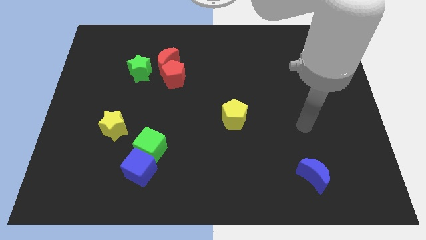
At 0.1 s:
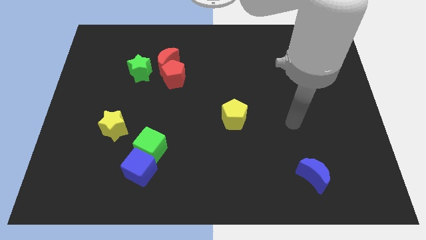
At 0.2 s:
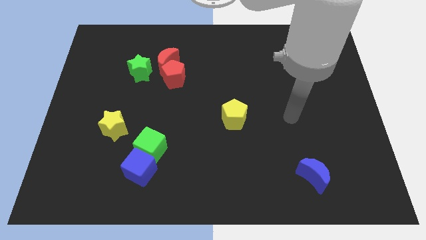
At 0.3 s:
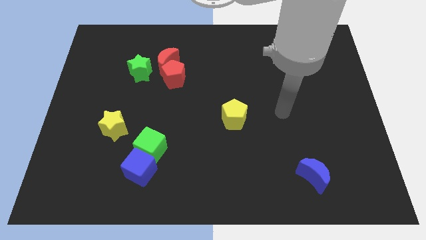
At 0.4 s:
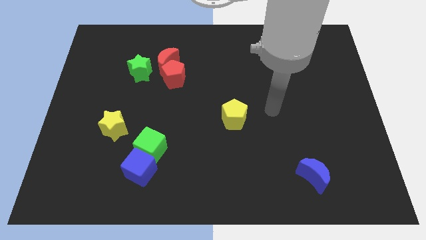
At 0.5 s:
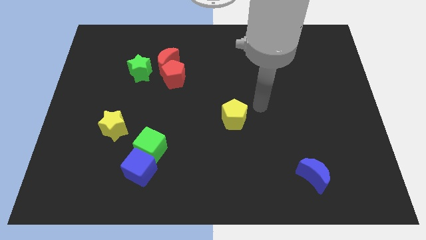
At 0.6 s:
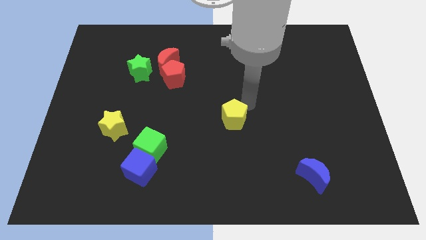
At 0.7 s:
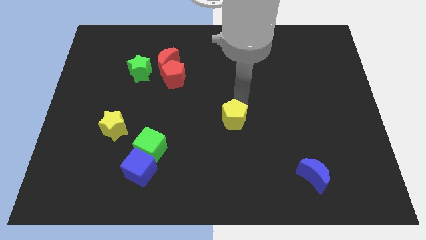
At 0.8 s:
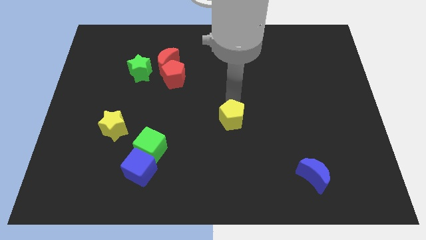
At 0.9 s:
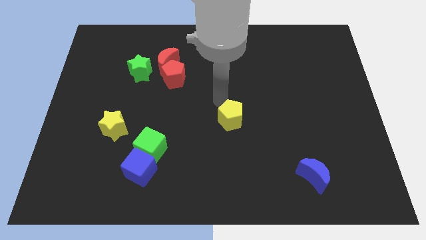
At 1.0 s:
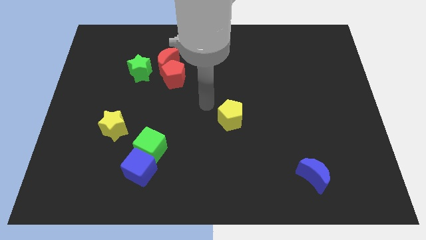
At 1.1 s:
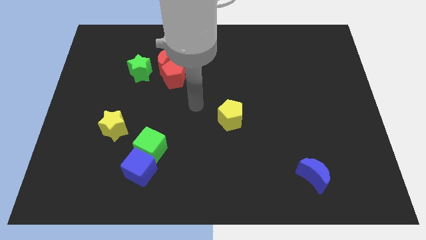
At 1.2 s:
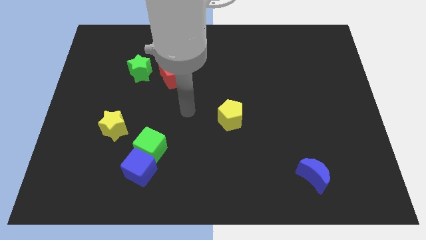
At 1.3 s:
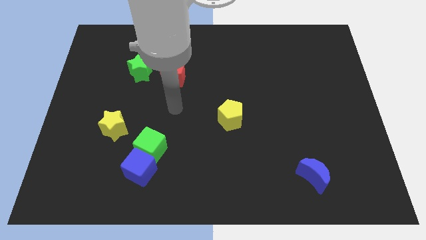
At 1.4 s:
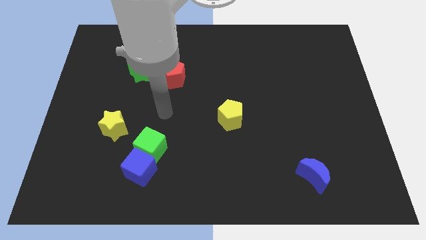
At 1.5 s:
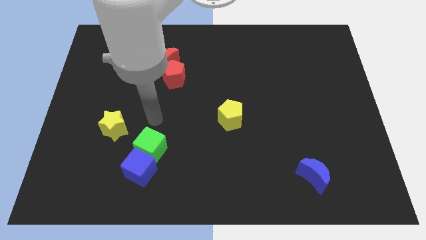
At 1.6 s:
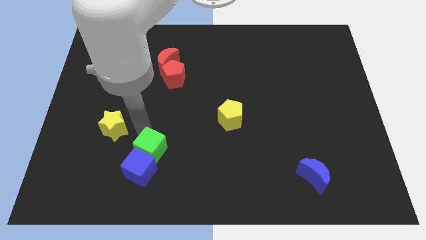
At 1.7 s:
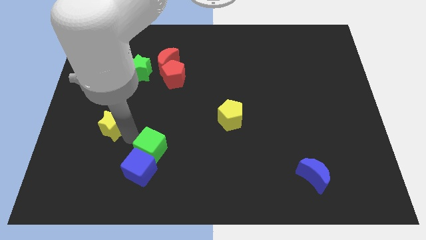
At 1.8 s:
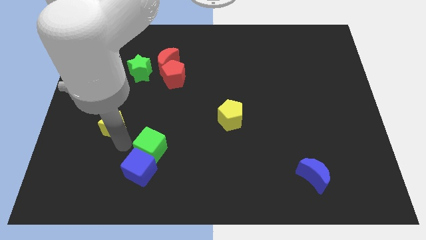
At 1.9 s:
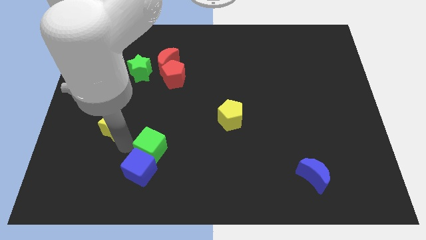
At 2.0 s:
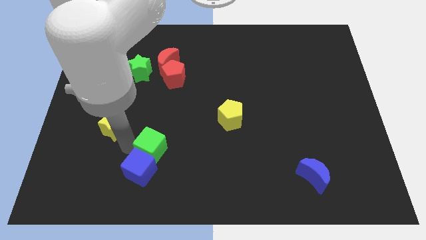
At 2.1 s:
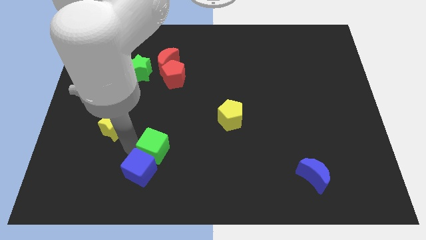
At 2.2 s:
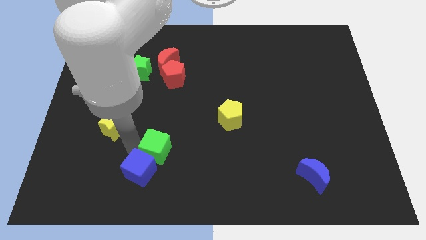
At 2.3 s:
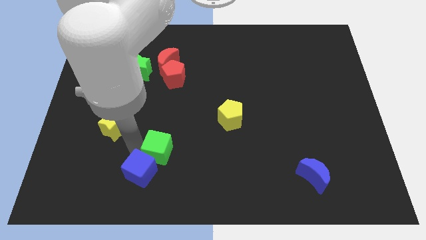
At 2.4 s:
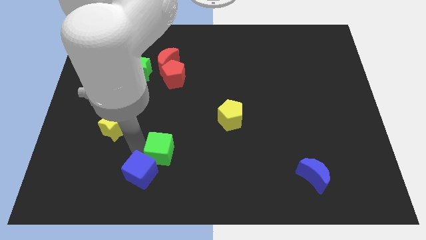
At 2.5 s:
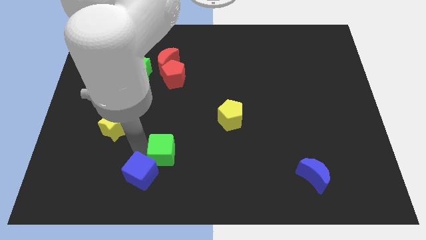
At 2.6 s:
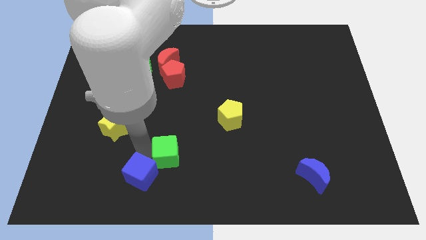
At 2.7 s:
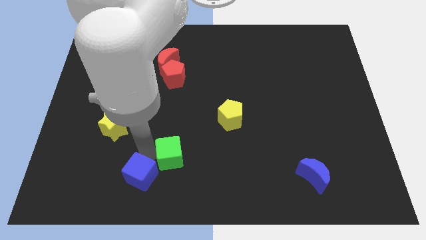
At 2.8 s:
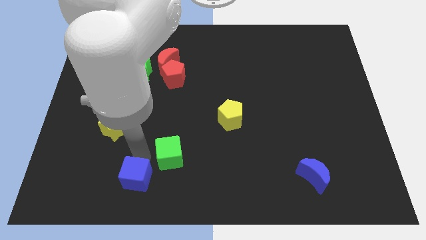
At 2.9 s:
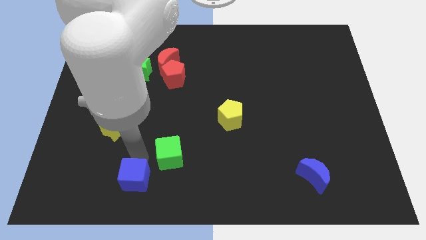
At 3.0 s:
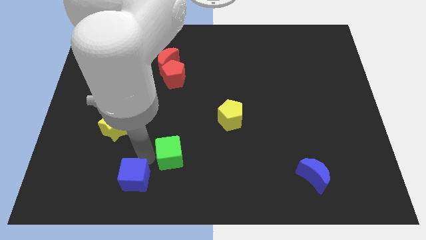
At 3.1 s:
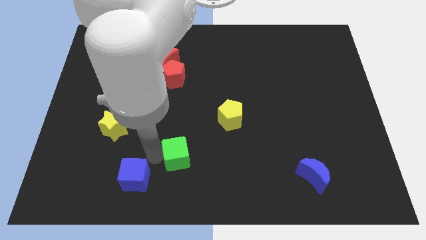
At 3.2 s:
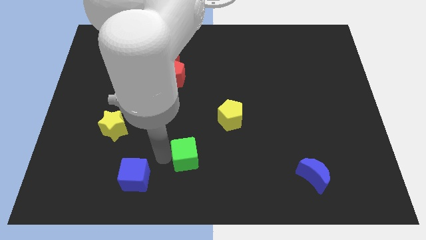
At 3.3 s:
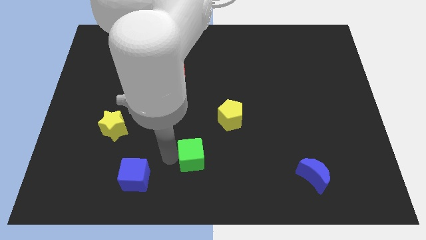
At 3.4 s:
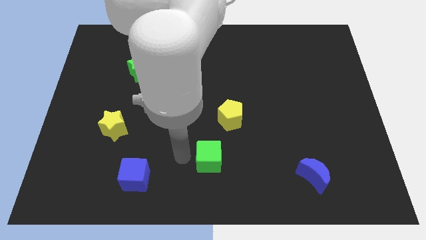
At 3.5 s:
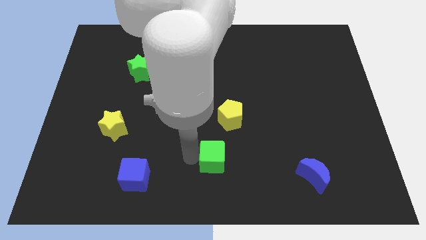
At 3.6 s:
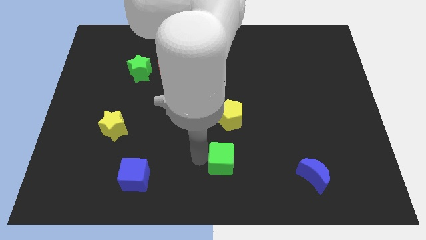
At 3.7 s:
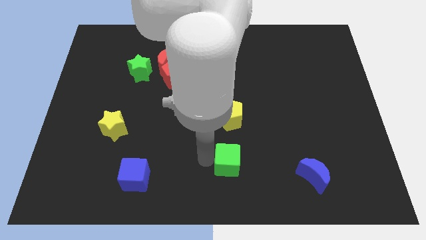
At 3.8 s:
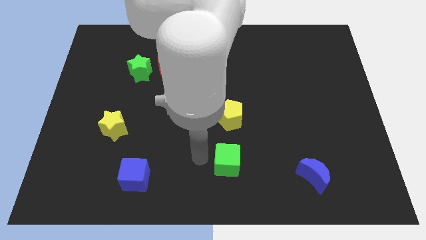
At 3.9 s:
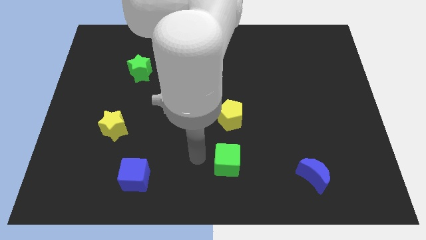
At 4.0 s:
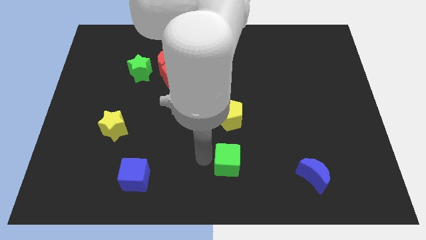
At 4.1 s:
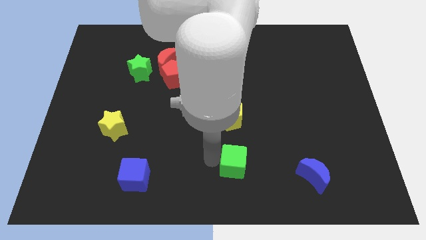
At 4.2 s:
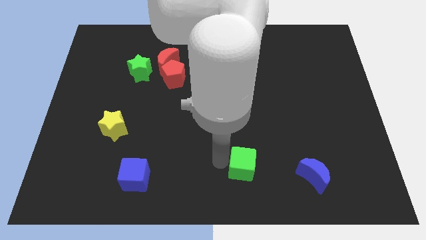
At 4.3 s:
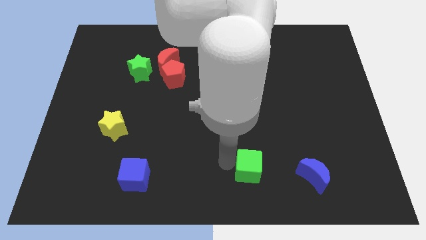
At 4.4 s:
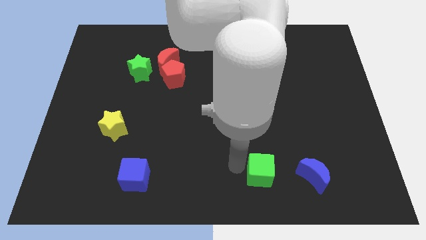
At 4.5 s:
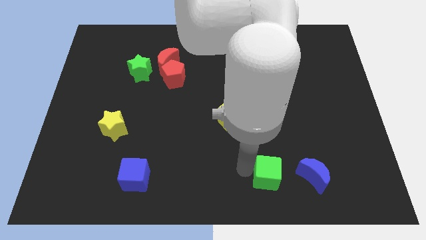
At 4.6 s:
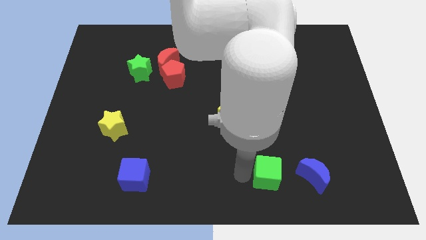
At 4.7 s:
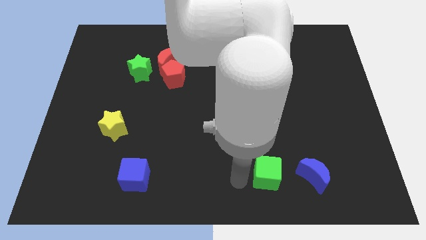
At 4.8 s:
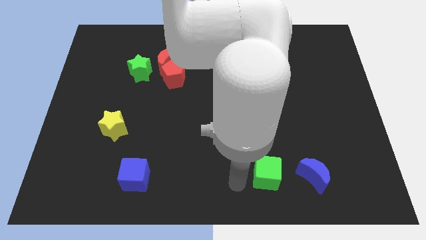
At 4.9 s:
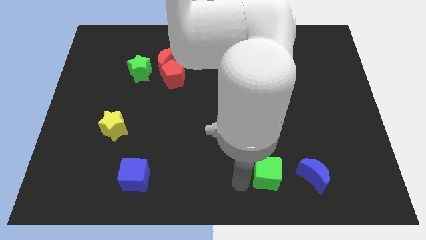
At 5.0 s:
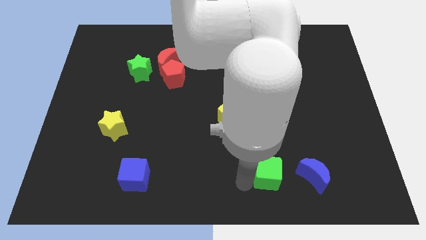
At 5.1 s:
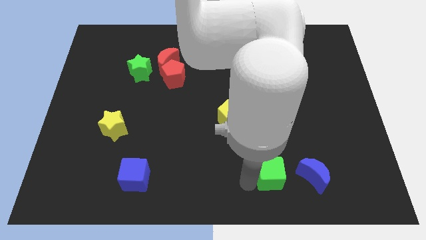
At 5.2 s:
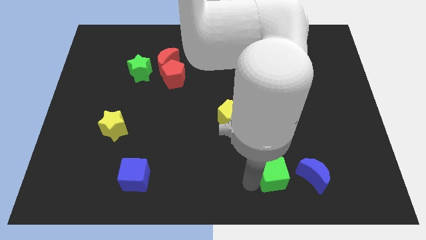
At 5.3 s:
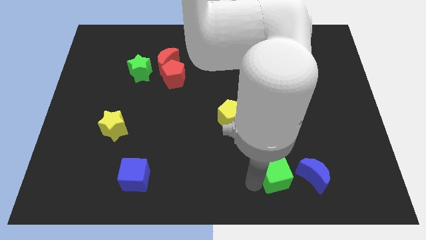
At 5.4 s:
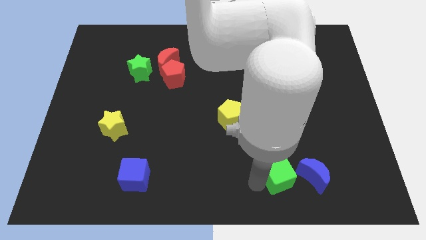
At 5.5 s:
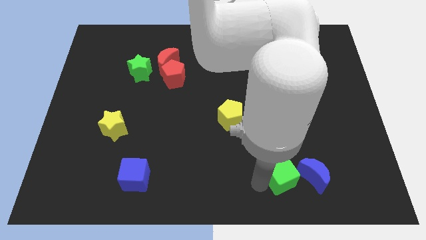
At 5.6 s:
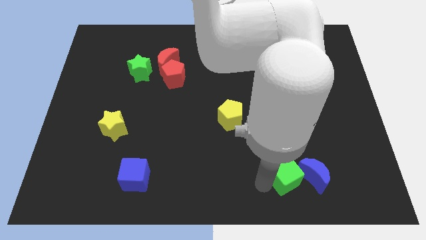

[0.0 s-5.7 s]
move the green cube towards the blue moon

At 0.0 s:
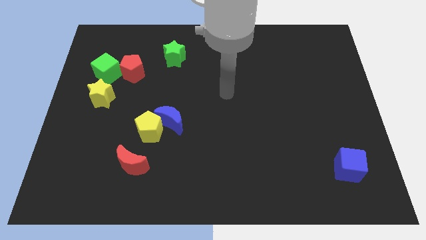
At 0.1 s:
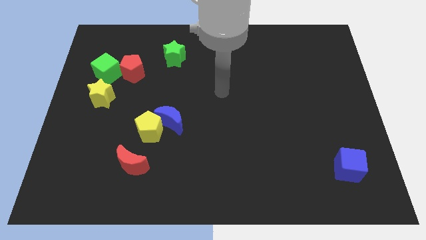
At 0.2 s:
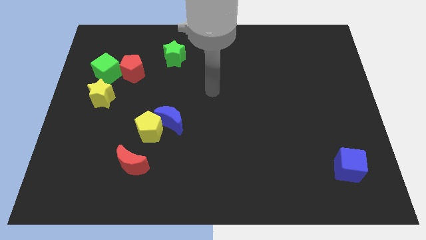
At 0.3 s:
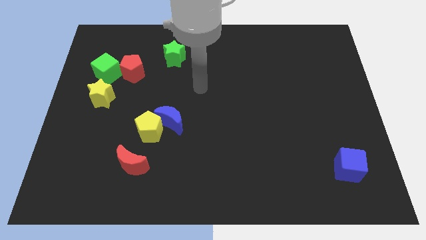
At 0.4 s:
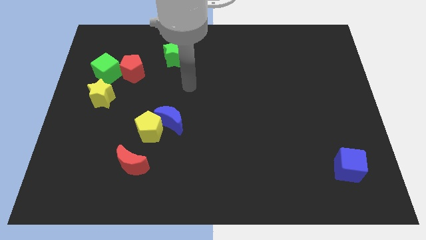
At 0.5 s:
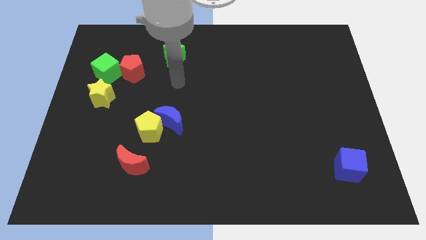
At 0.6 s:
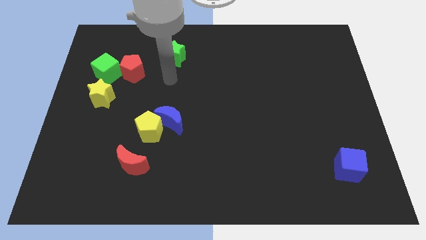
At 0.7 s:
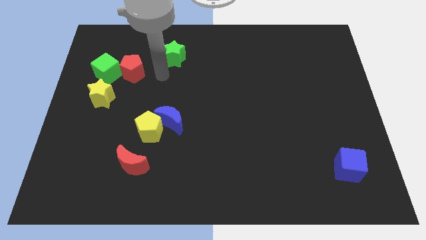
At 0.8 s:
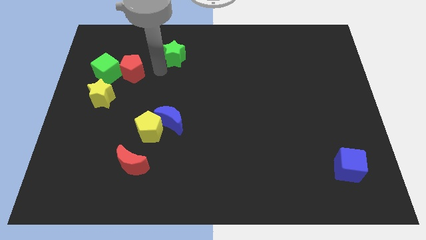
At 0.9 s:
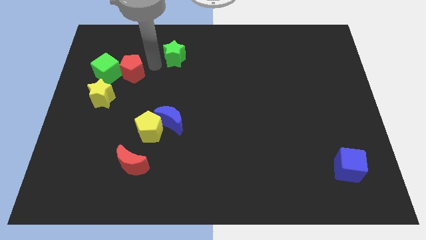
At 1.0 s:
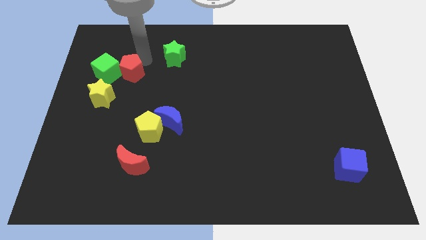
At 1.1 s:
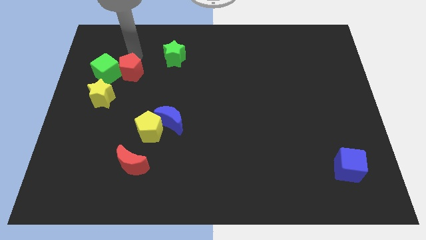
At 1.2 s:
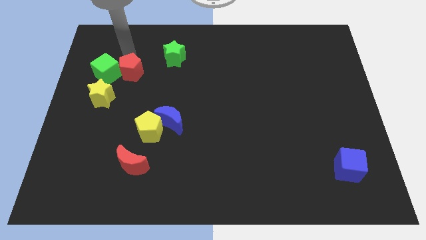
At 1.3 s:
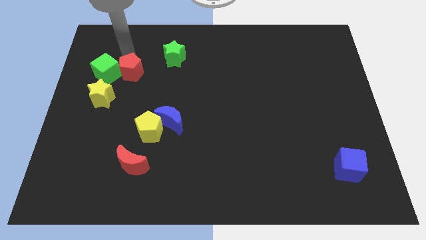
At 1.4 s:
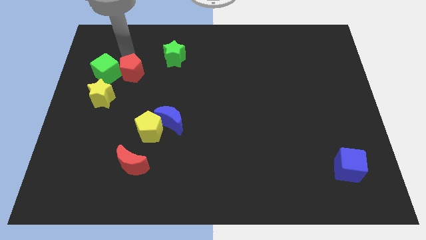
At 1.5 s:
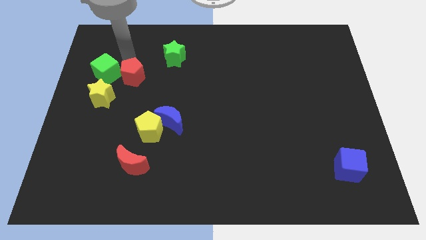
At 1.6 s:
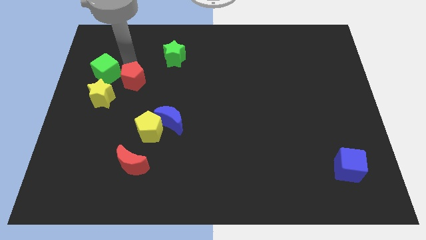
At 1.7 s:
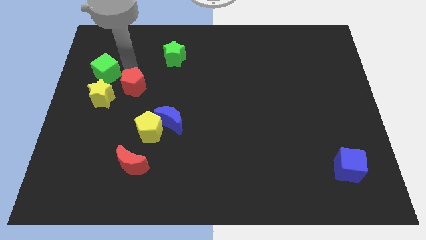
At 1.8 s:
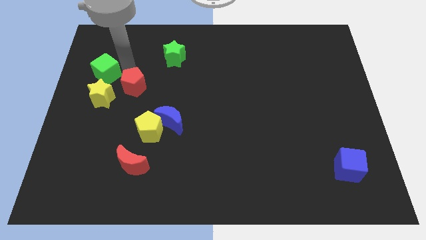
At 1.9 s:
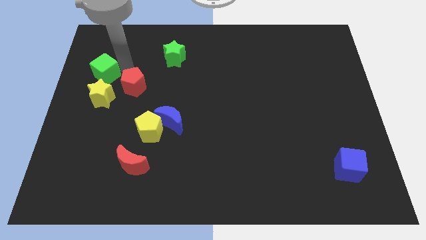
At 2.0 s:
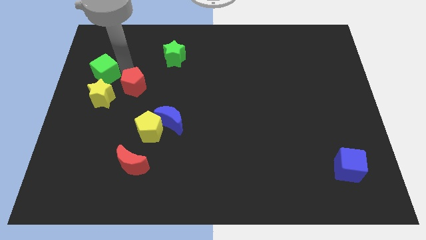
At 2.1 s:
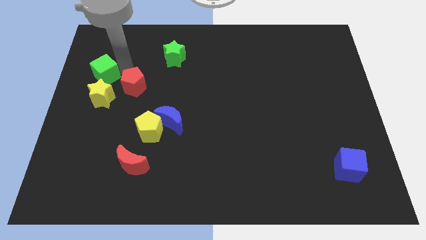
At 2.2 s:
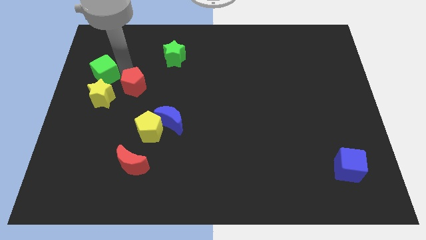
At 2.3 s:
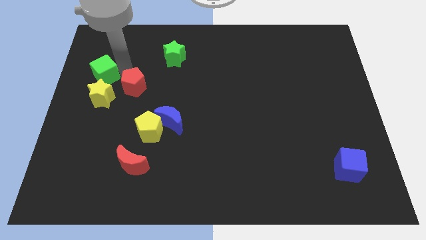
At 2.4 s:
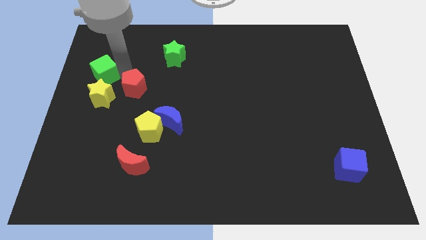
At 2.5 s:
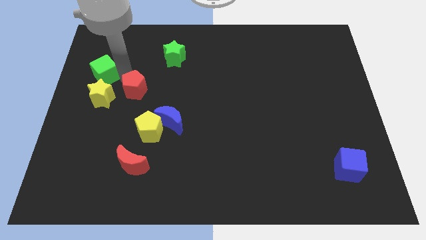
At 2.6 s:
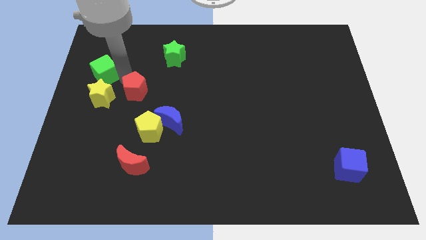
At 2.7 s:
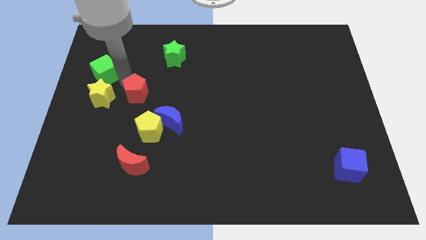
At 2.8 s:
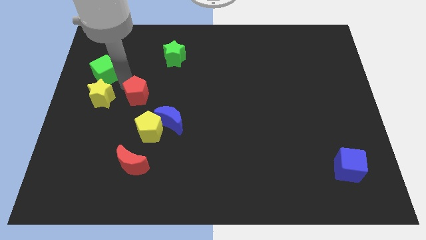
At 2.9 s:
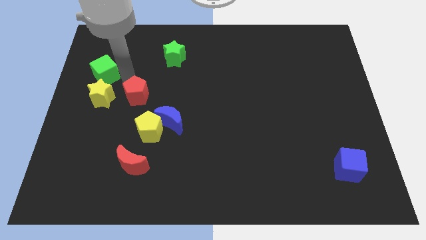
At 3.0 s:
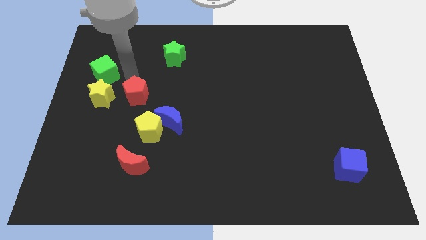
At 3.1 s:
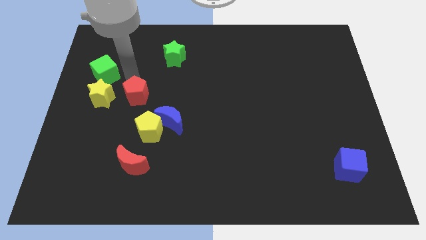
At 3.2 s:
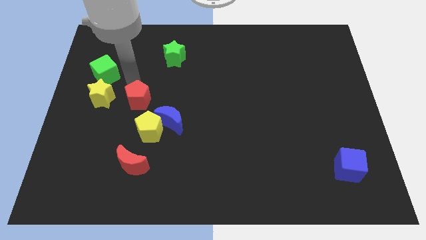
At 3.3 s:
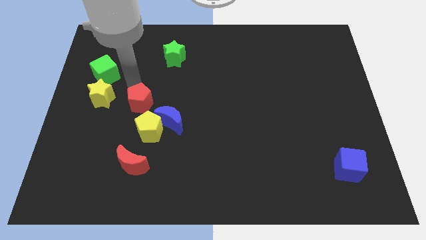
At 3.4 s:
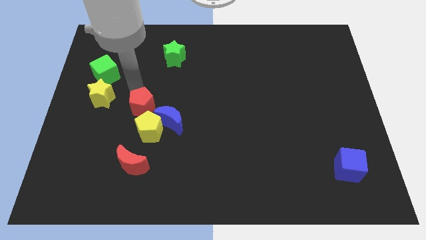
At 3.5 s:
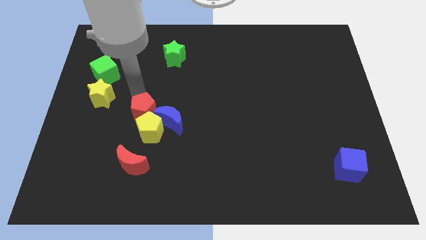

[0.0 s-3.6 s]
move the red pentagon close to the yellow pentagon
